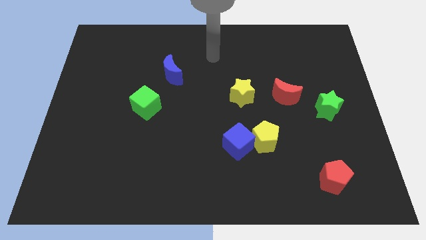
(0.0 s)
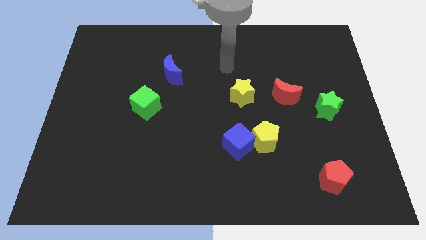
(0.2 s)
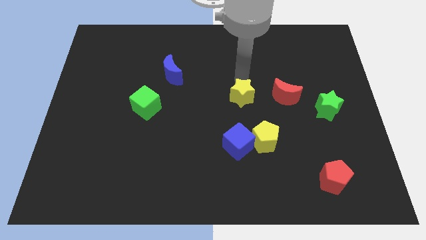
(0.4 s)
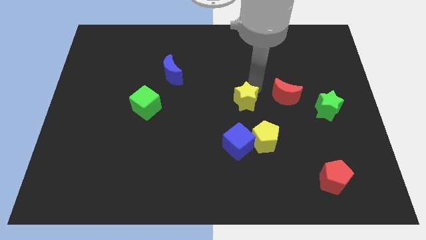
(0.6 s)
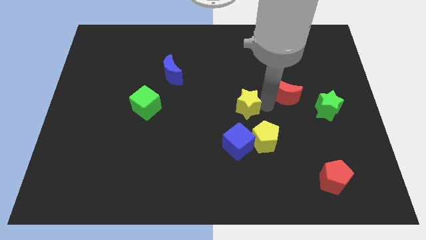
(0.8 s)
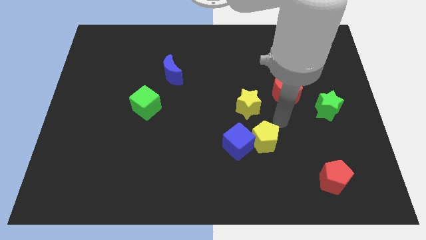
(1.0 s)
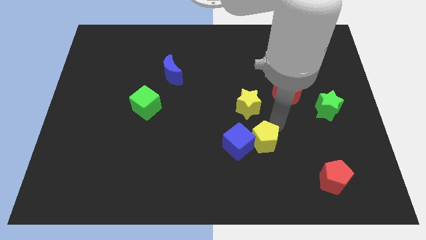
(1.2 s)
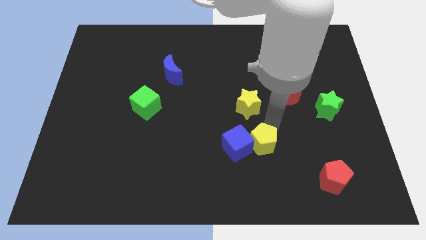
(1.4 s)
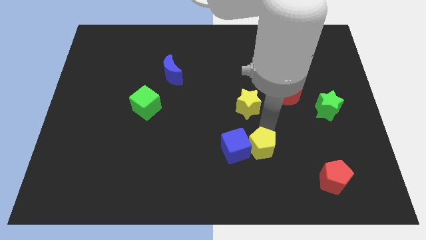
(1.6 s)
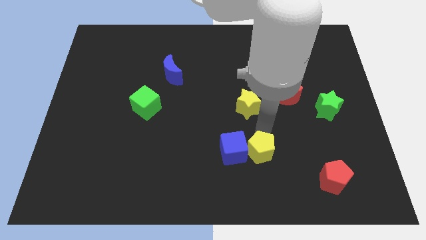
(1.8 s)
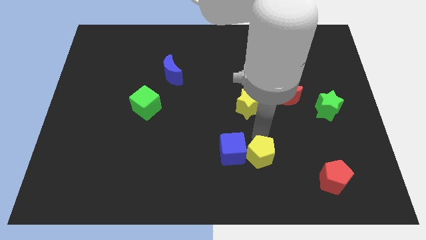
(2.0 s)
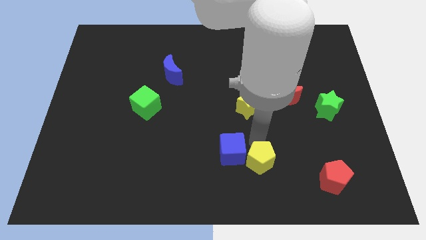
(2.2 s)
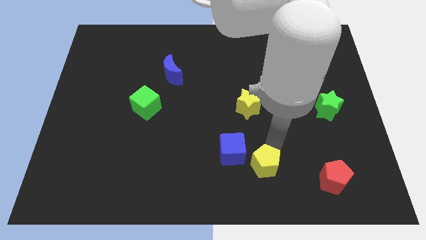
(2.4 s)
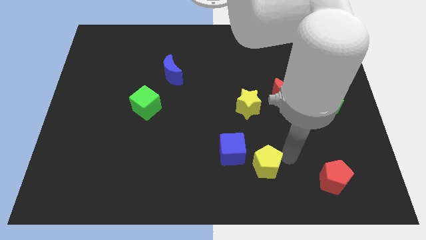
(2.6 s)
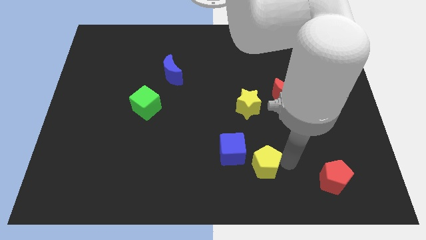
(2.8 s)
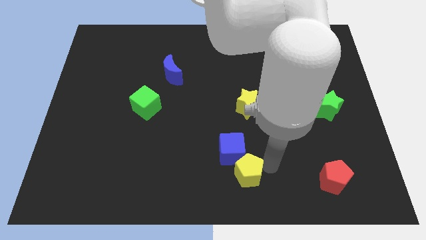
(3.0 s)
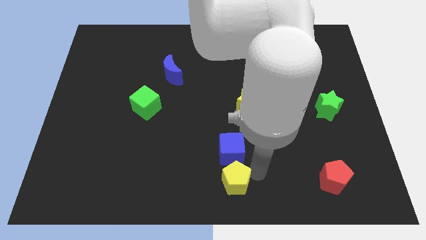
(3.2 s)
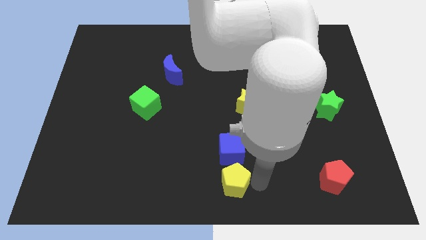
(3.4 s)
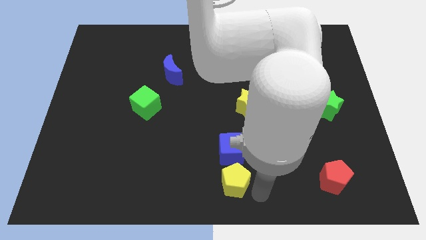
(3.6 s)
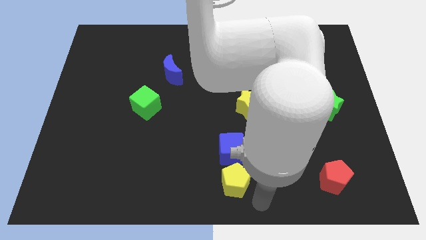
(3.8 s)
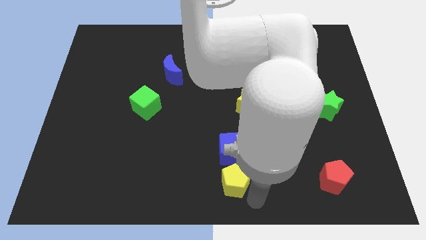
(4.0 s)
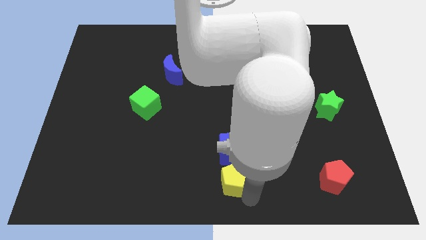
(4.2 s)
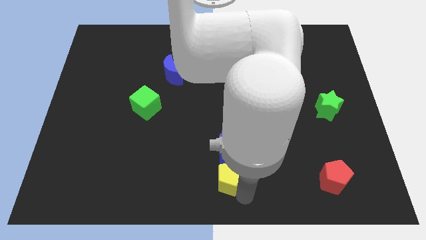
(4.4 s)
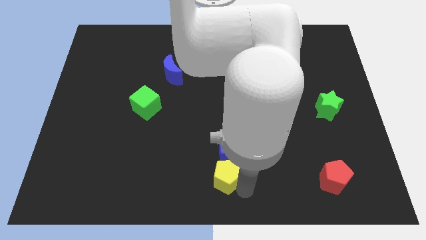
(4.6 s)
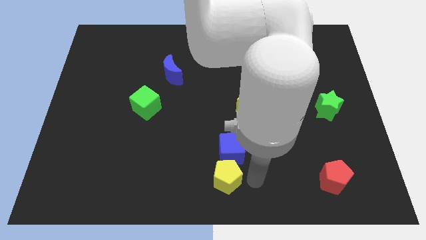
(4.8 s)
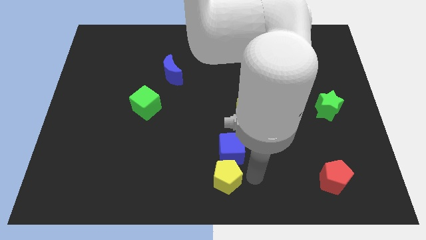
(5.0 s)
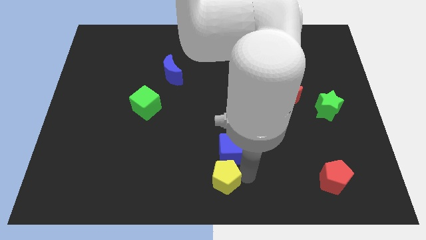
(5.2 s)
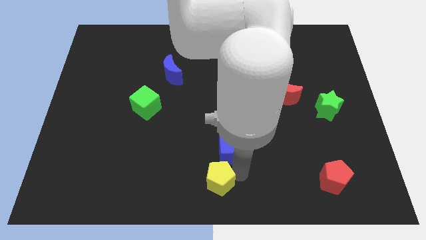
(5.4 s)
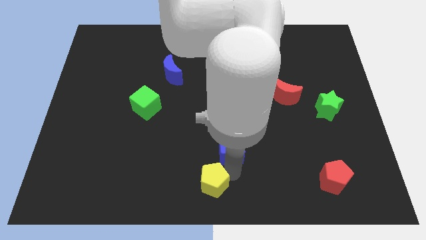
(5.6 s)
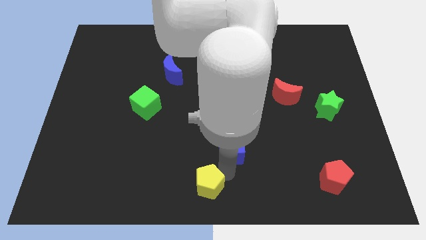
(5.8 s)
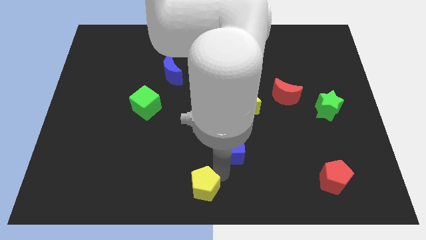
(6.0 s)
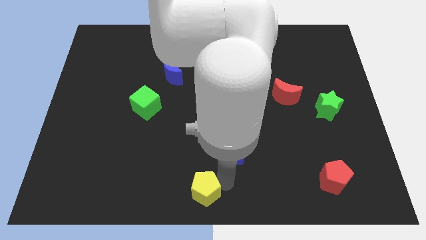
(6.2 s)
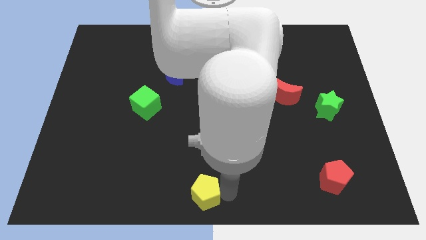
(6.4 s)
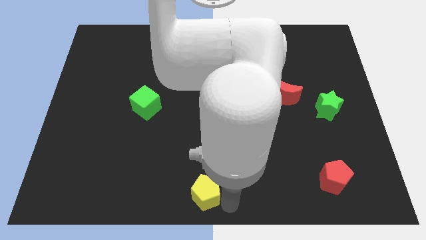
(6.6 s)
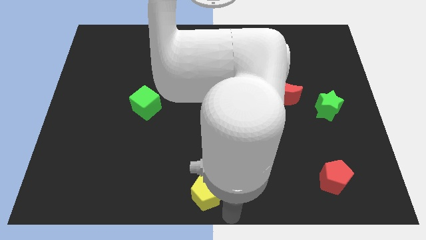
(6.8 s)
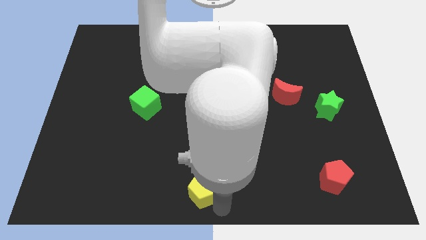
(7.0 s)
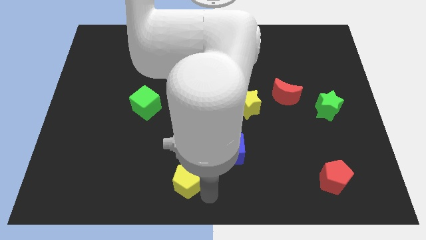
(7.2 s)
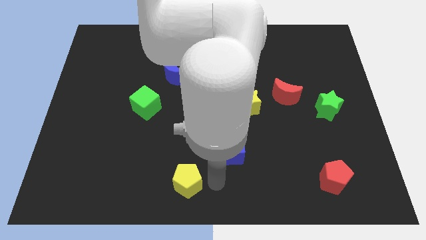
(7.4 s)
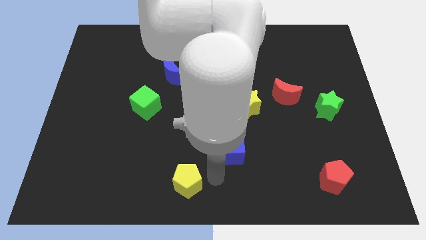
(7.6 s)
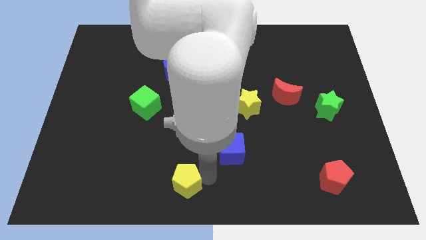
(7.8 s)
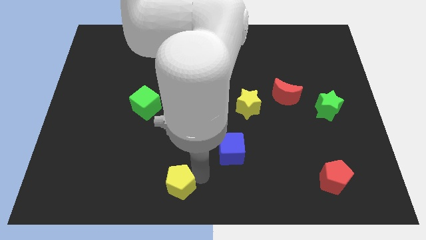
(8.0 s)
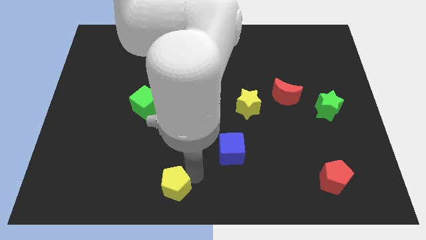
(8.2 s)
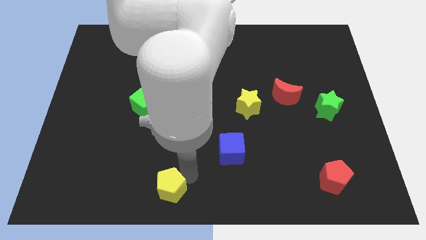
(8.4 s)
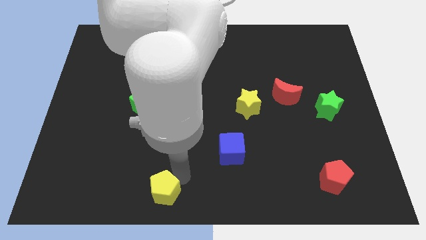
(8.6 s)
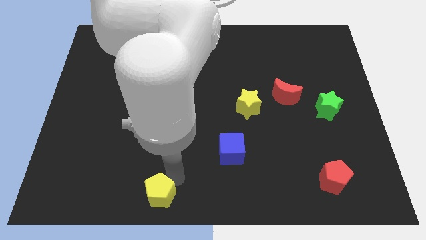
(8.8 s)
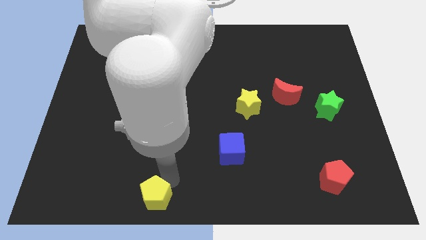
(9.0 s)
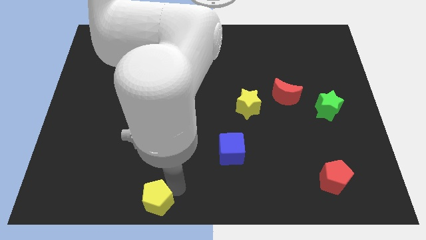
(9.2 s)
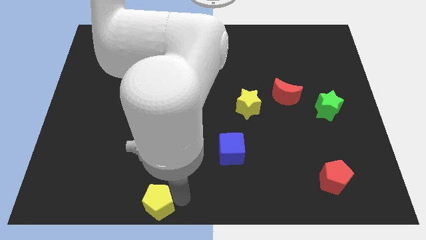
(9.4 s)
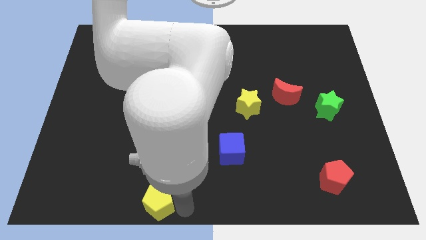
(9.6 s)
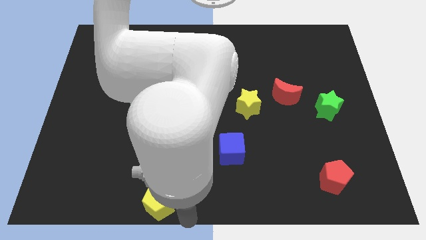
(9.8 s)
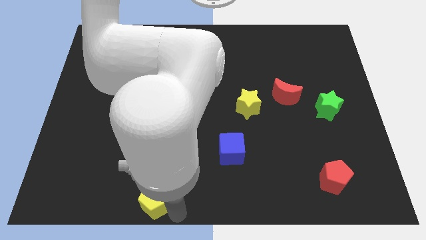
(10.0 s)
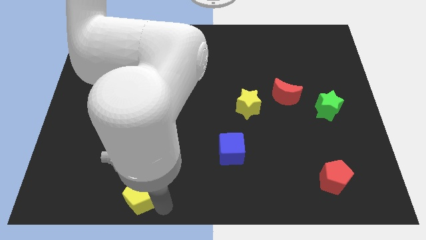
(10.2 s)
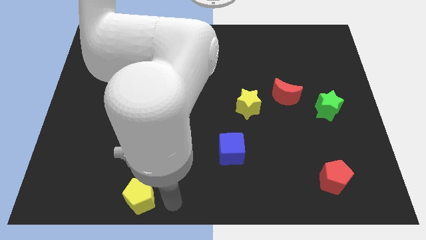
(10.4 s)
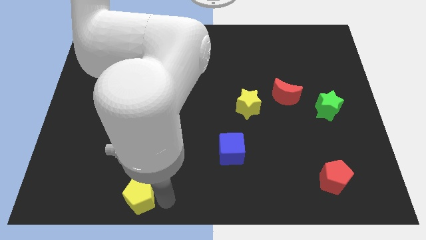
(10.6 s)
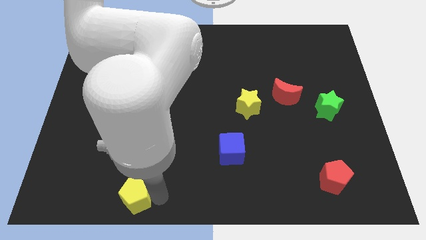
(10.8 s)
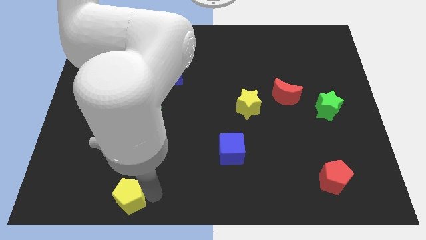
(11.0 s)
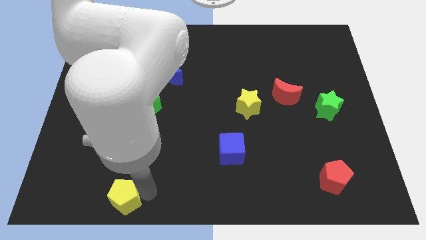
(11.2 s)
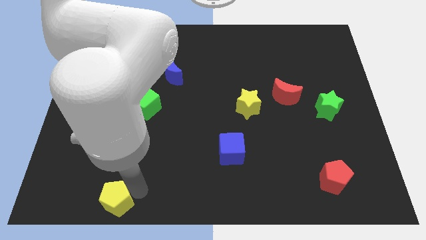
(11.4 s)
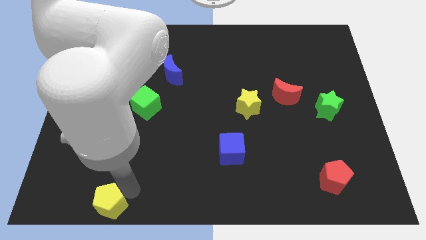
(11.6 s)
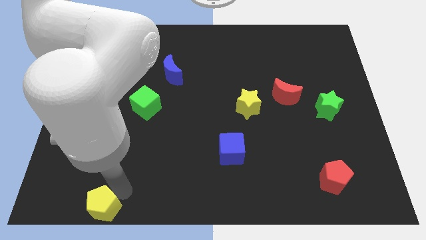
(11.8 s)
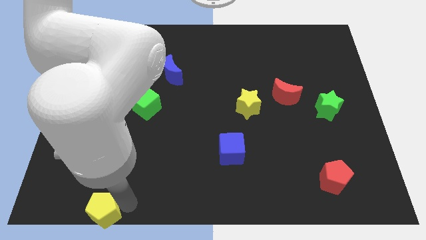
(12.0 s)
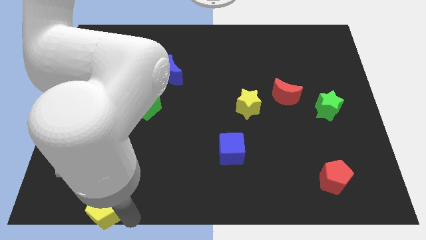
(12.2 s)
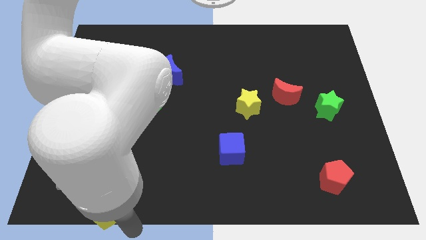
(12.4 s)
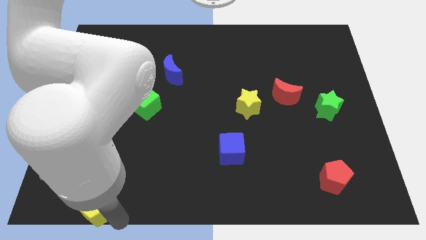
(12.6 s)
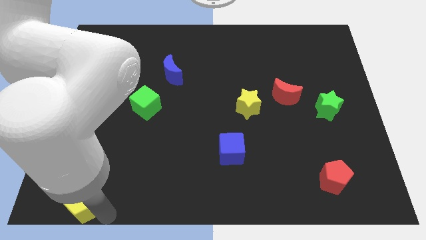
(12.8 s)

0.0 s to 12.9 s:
put the yellow pentagon to the lower left corner
